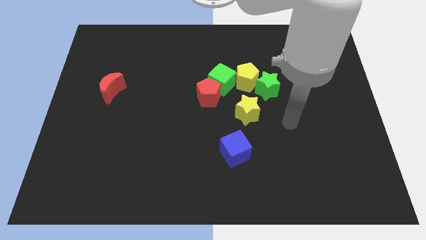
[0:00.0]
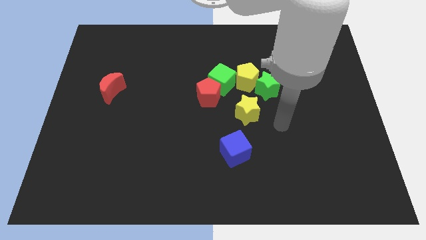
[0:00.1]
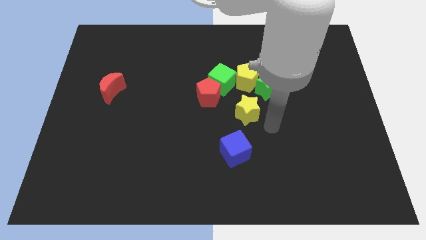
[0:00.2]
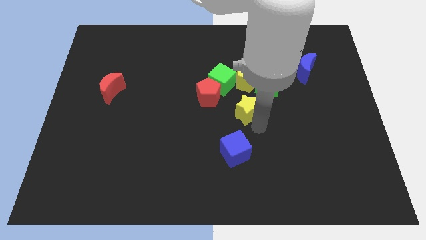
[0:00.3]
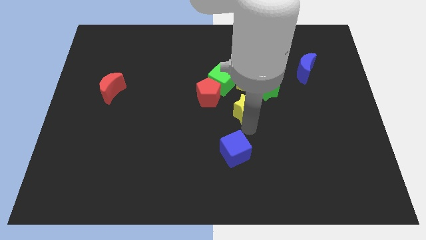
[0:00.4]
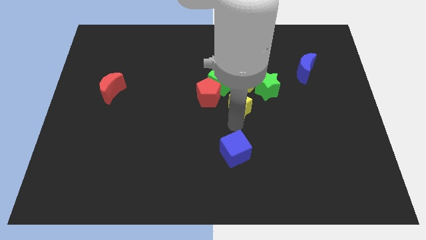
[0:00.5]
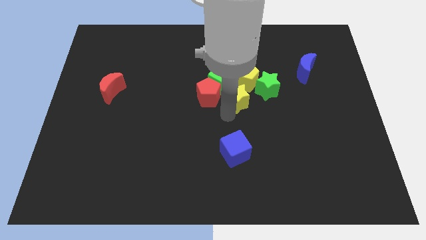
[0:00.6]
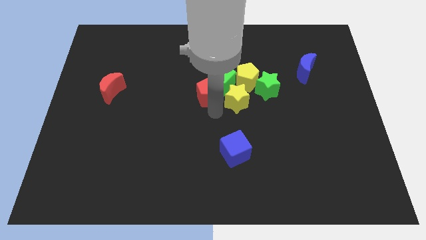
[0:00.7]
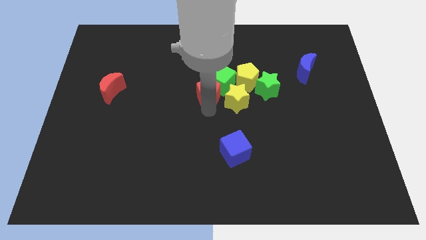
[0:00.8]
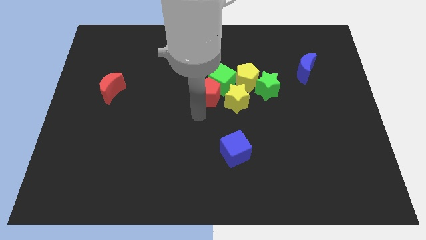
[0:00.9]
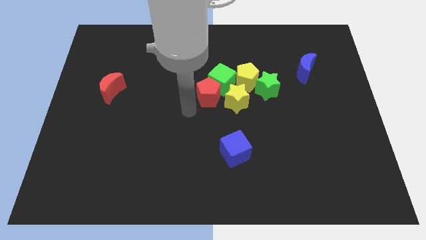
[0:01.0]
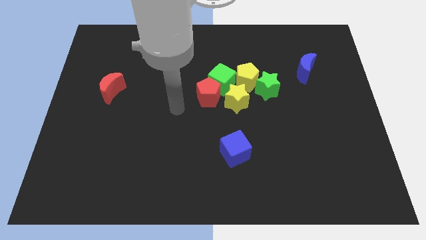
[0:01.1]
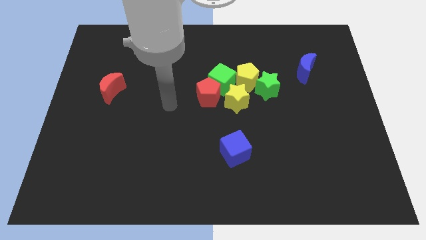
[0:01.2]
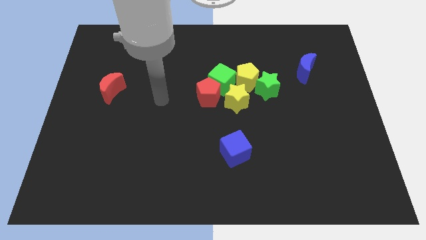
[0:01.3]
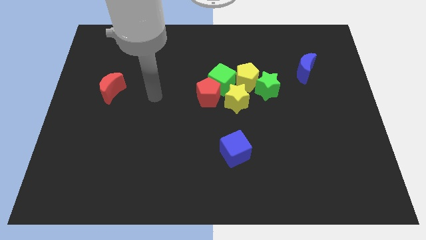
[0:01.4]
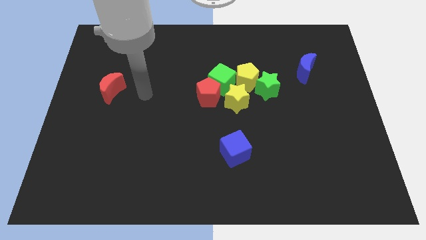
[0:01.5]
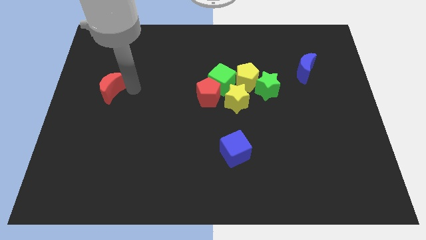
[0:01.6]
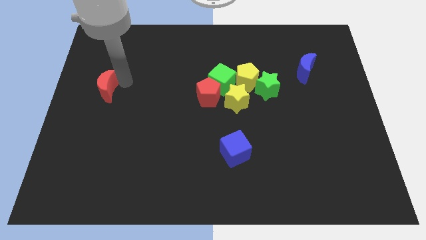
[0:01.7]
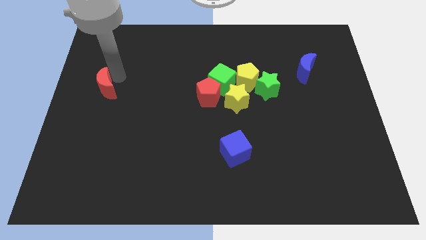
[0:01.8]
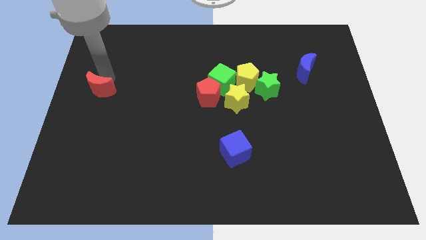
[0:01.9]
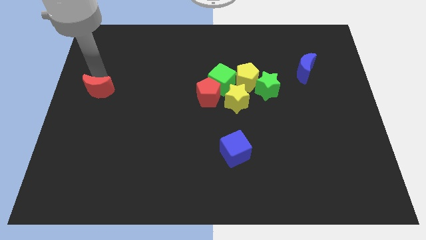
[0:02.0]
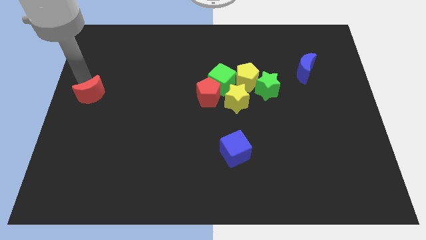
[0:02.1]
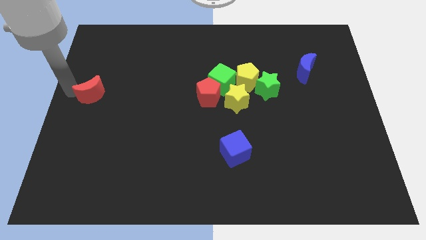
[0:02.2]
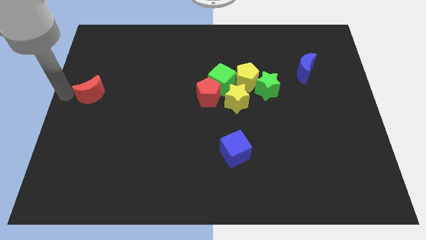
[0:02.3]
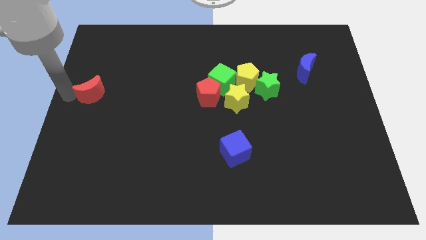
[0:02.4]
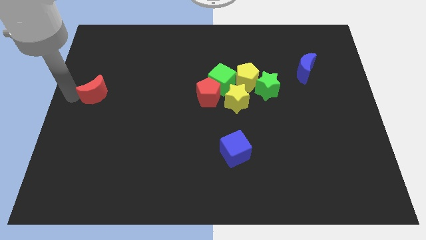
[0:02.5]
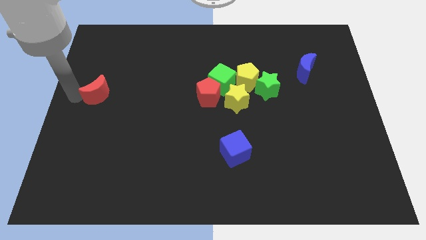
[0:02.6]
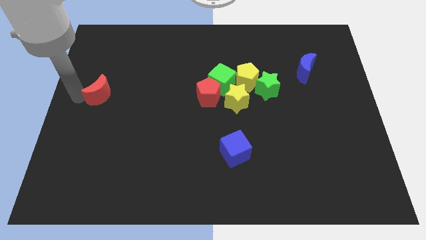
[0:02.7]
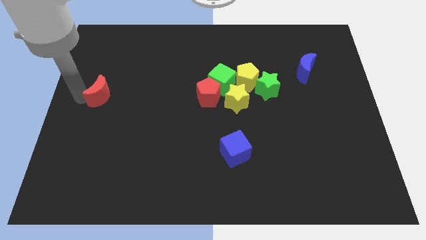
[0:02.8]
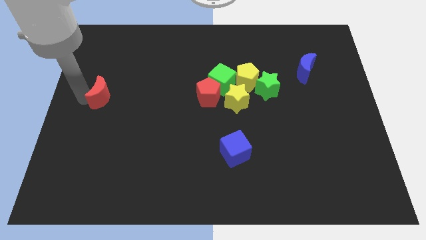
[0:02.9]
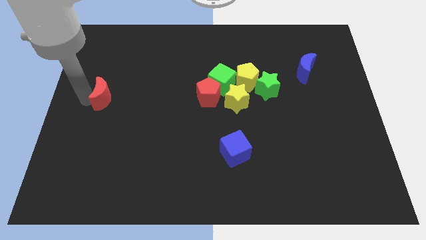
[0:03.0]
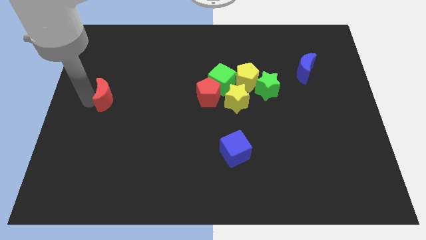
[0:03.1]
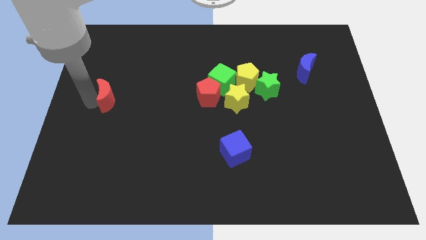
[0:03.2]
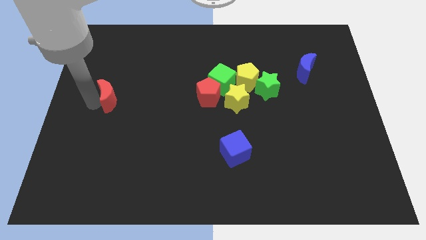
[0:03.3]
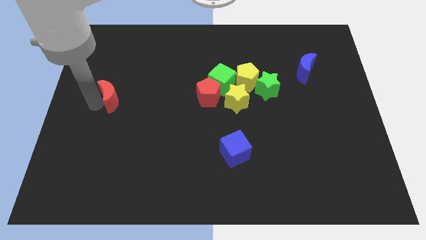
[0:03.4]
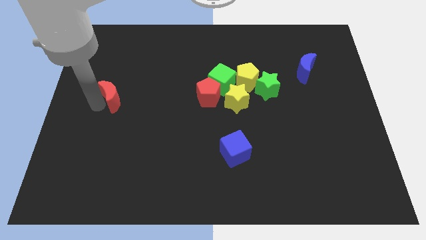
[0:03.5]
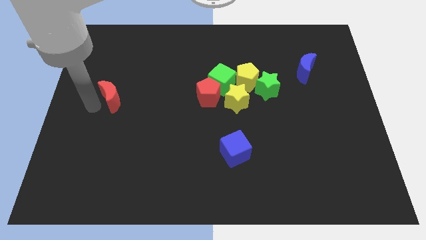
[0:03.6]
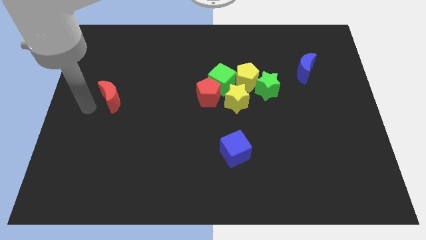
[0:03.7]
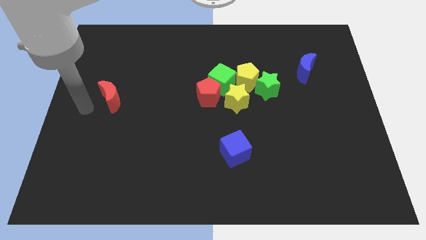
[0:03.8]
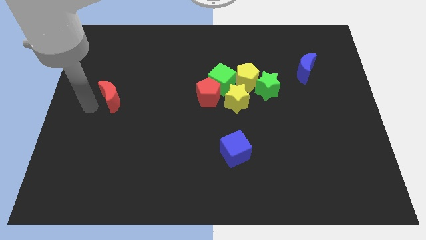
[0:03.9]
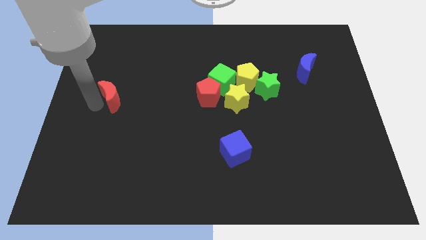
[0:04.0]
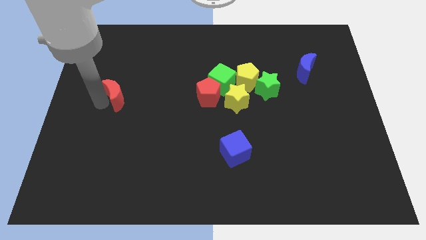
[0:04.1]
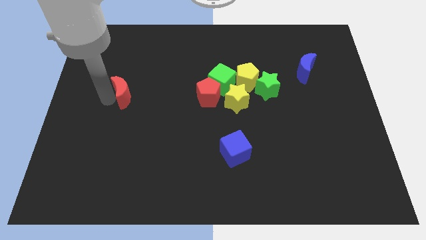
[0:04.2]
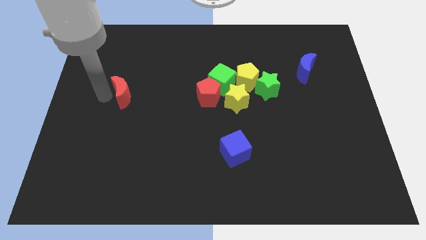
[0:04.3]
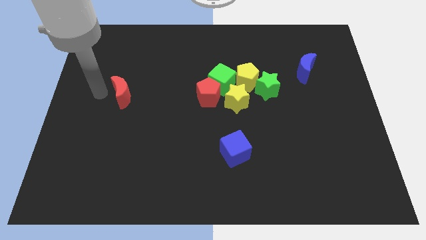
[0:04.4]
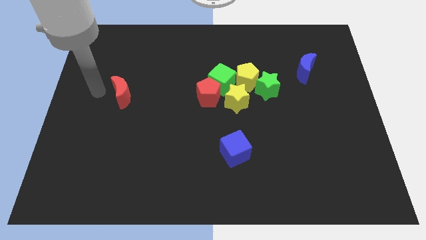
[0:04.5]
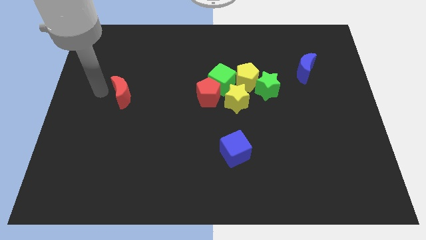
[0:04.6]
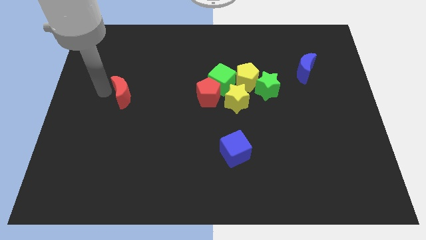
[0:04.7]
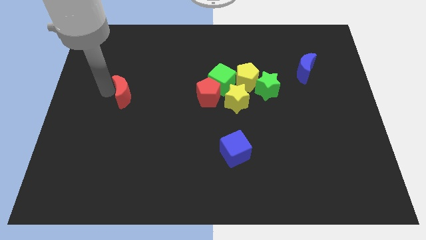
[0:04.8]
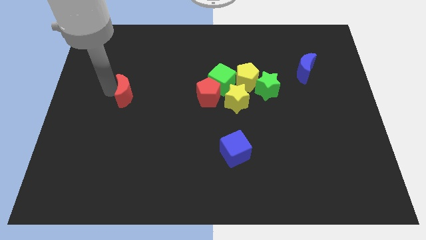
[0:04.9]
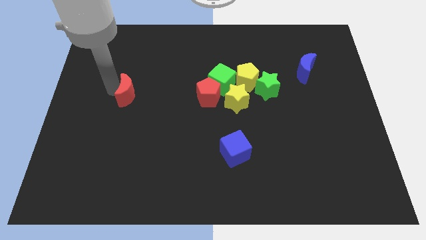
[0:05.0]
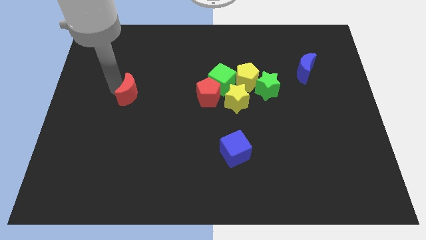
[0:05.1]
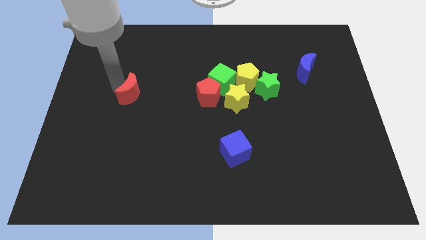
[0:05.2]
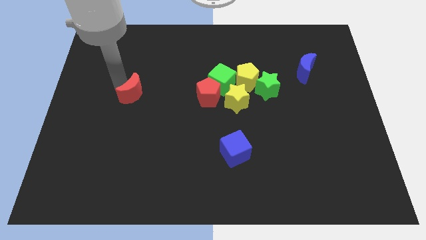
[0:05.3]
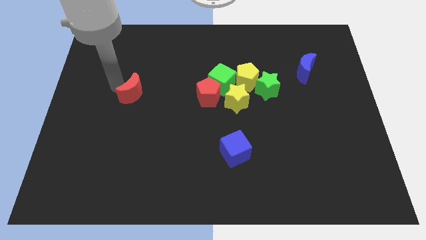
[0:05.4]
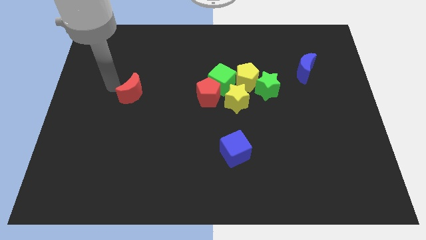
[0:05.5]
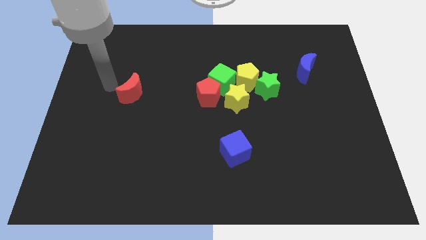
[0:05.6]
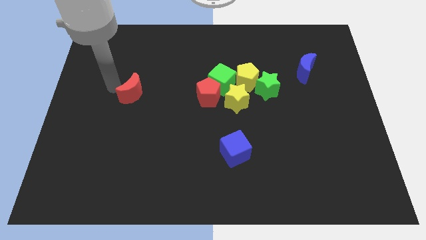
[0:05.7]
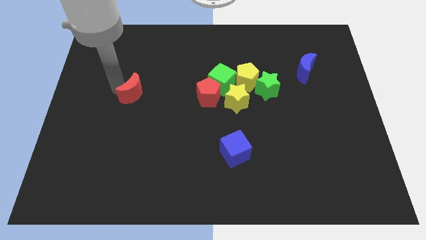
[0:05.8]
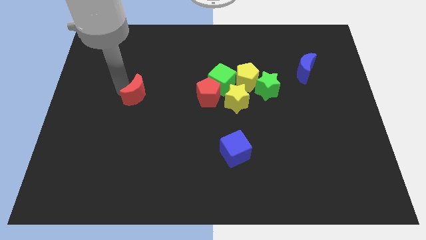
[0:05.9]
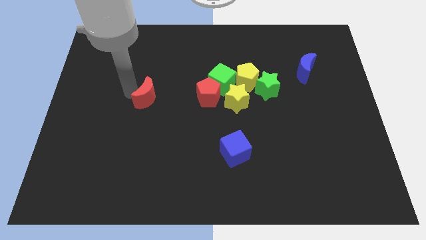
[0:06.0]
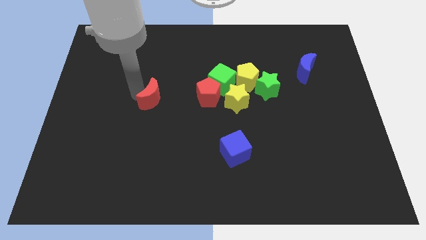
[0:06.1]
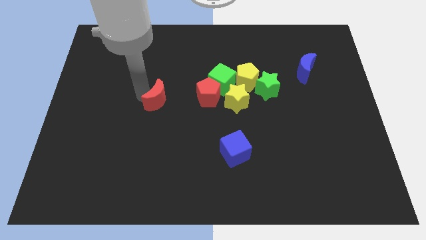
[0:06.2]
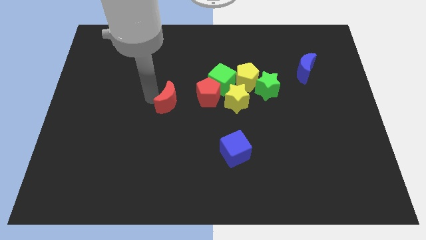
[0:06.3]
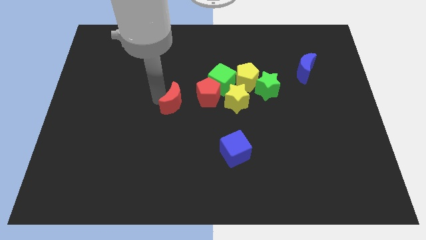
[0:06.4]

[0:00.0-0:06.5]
slide the red moon to the bottom left of the red pentagon

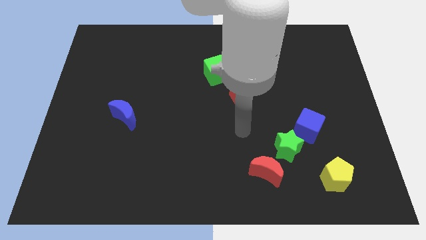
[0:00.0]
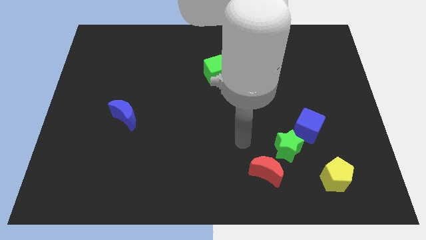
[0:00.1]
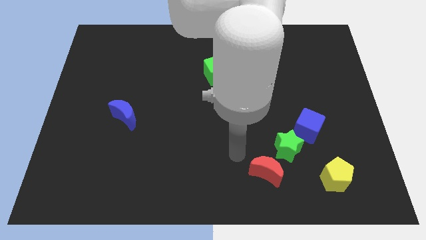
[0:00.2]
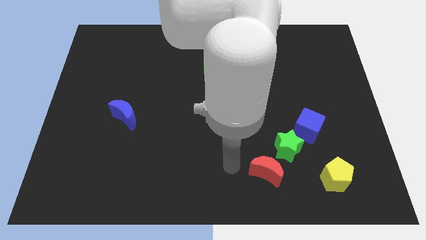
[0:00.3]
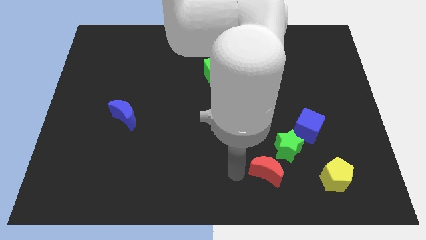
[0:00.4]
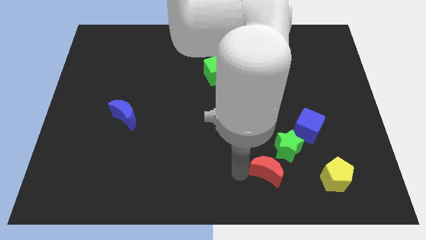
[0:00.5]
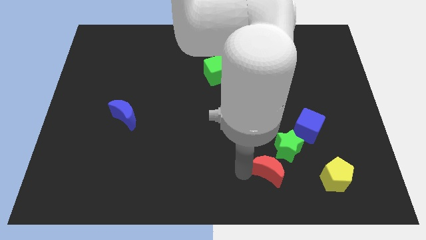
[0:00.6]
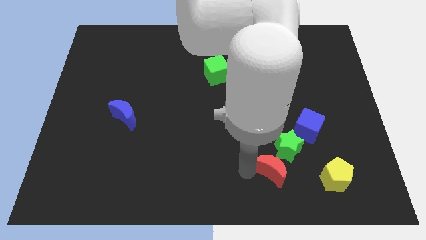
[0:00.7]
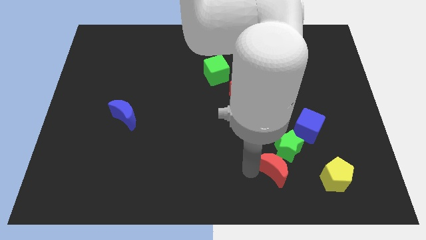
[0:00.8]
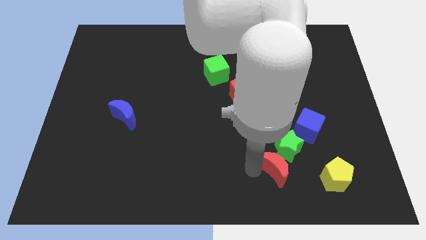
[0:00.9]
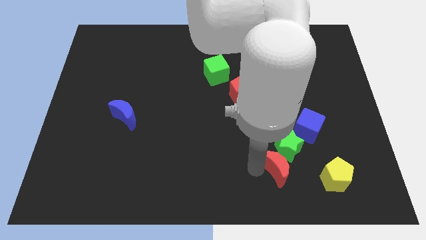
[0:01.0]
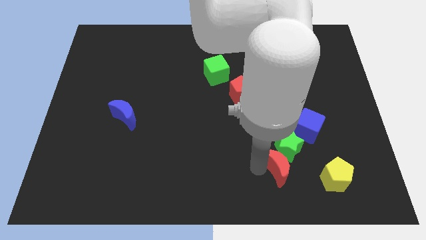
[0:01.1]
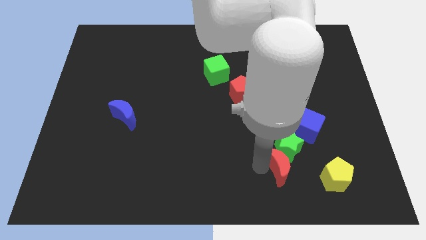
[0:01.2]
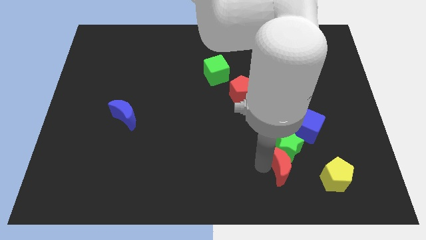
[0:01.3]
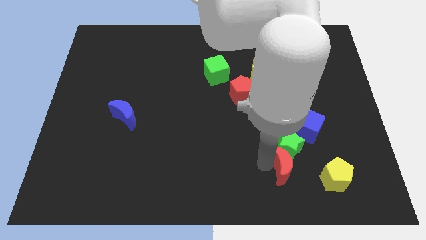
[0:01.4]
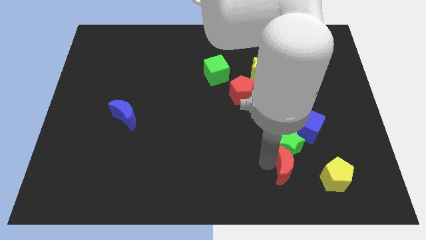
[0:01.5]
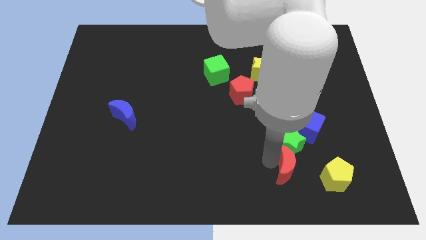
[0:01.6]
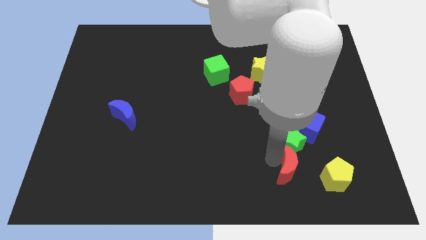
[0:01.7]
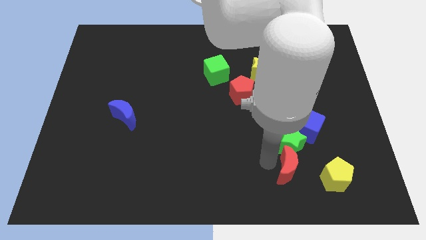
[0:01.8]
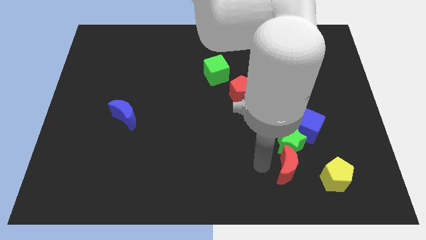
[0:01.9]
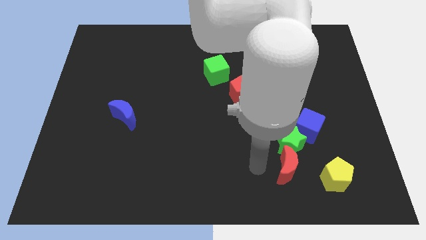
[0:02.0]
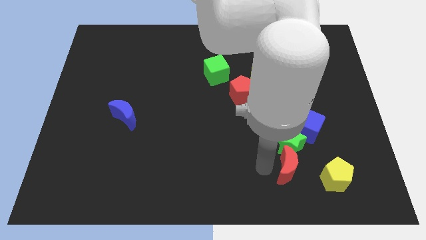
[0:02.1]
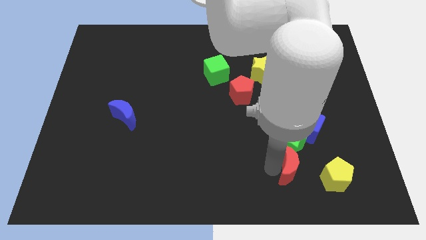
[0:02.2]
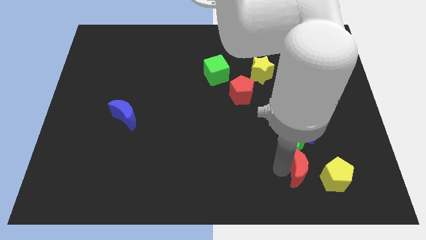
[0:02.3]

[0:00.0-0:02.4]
slide the red moon to the bottom side of the blue cube
